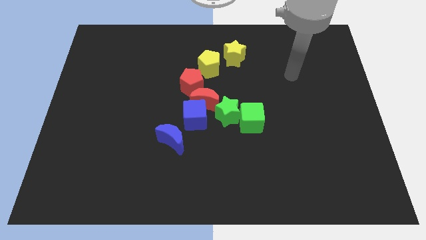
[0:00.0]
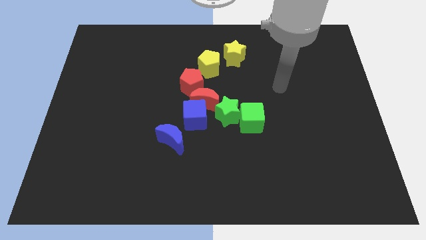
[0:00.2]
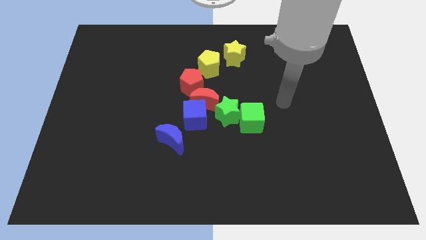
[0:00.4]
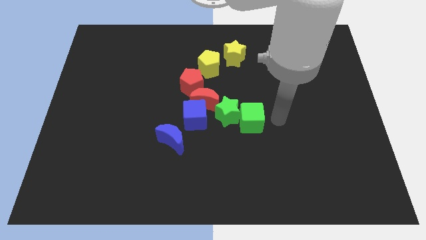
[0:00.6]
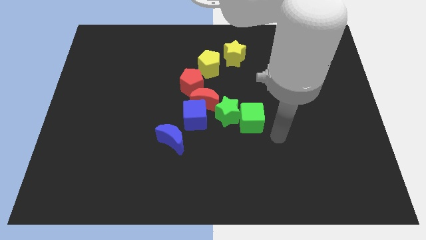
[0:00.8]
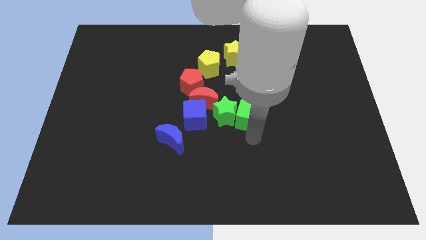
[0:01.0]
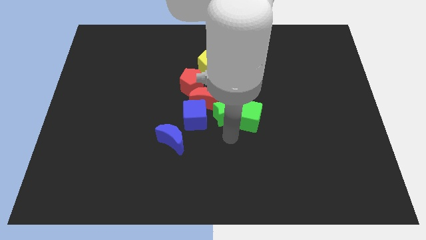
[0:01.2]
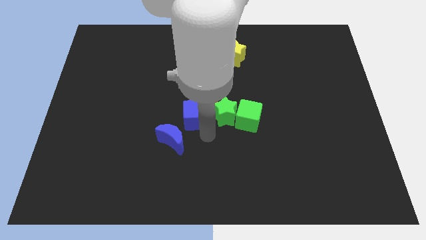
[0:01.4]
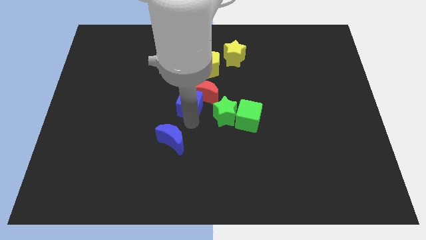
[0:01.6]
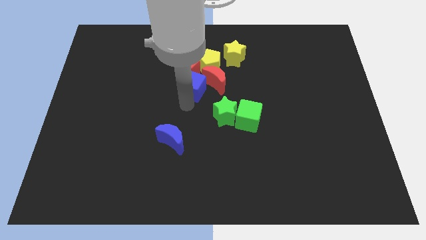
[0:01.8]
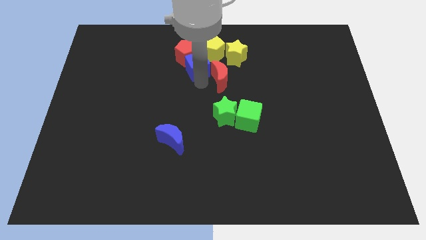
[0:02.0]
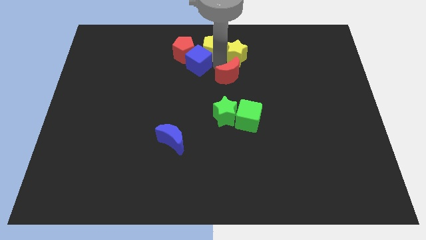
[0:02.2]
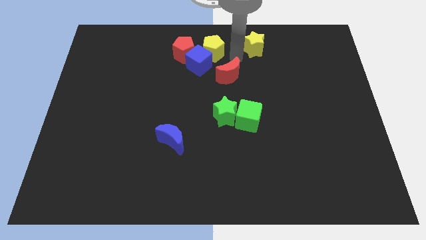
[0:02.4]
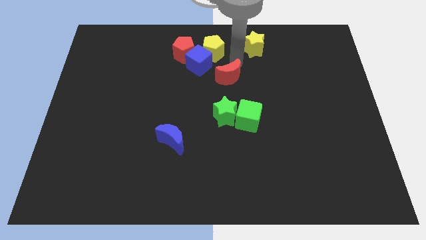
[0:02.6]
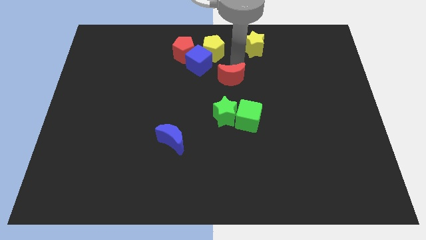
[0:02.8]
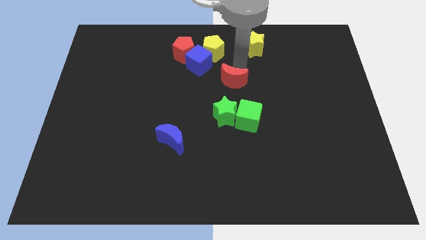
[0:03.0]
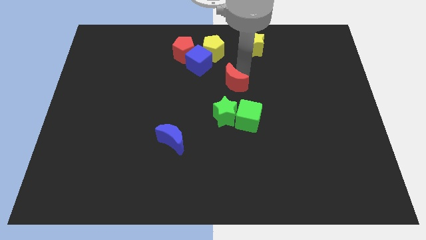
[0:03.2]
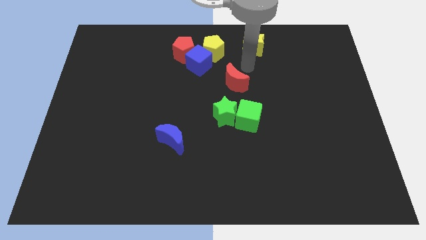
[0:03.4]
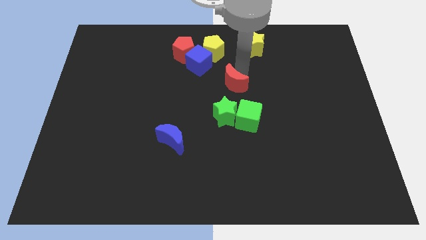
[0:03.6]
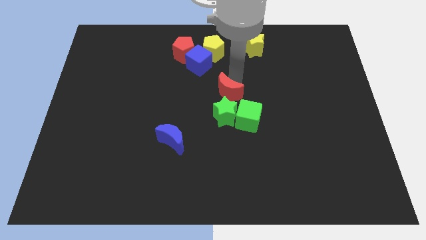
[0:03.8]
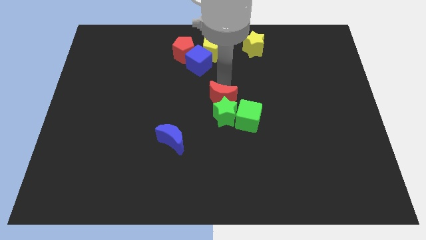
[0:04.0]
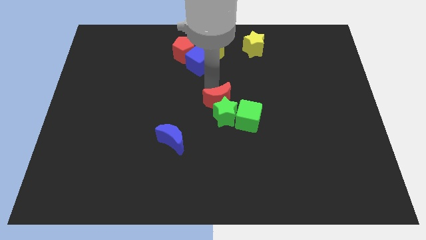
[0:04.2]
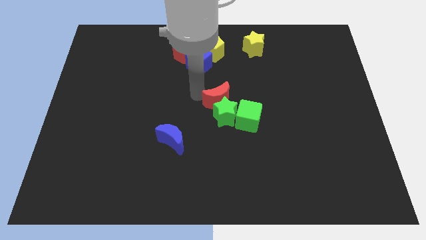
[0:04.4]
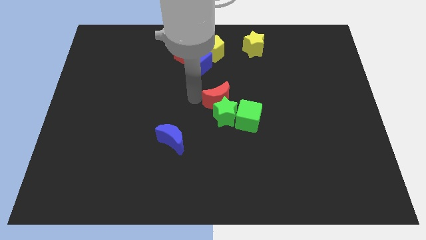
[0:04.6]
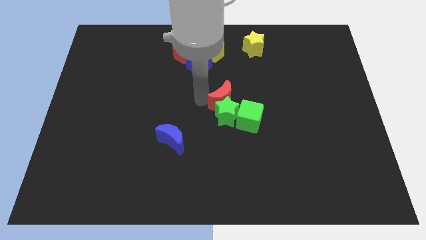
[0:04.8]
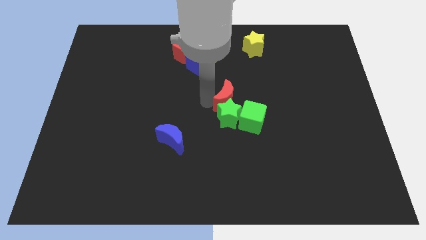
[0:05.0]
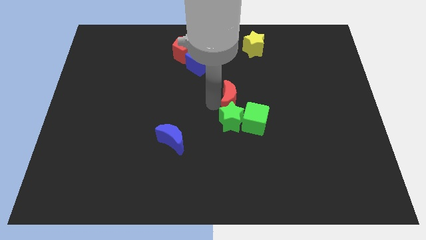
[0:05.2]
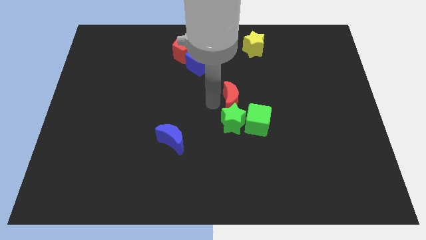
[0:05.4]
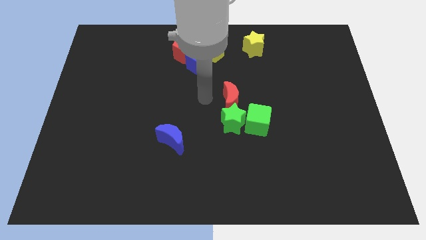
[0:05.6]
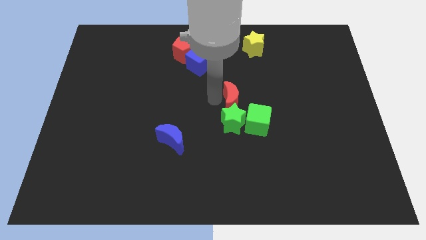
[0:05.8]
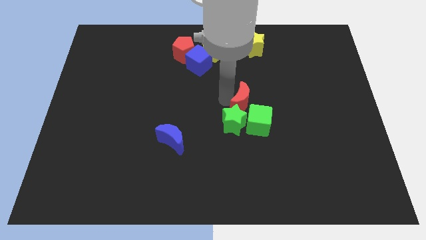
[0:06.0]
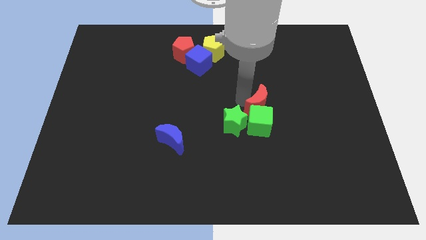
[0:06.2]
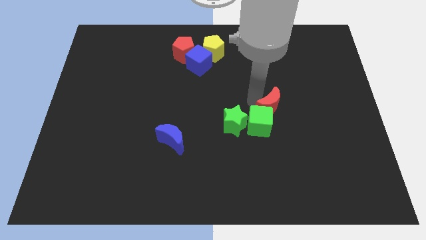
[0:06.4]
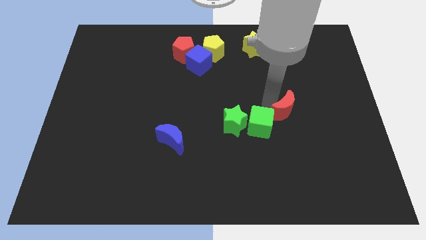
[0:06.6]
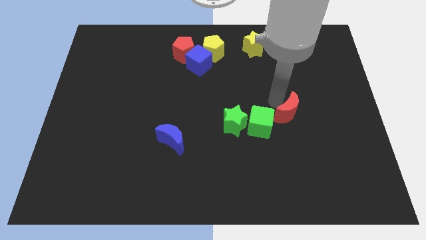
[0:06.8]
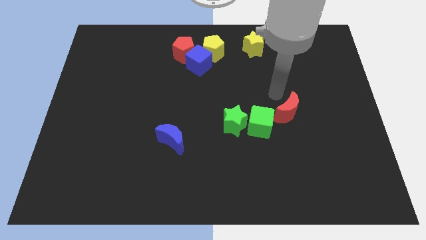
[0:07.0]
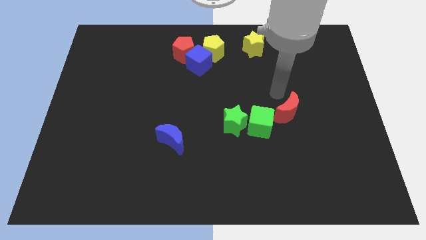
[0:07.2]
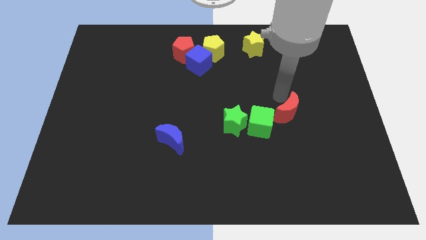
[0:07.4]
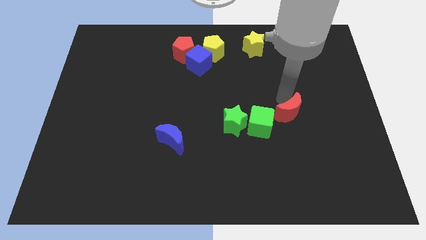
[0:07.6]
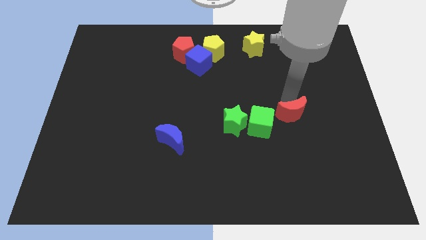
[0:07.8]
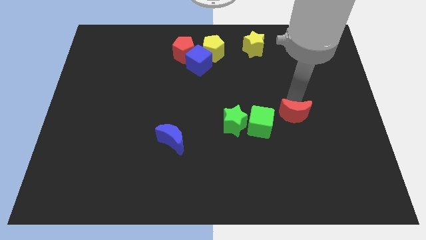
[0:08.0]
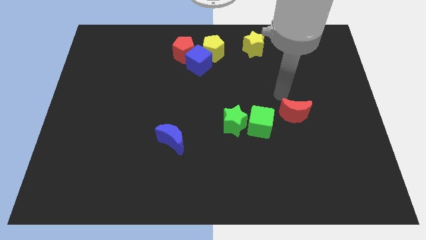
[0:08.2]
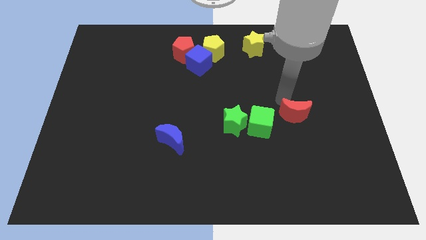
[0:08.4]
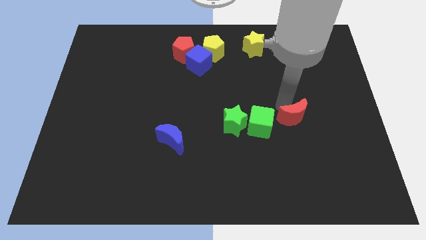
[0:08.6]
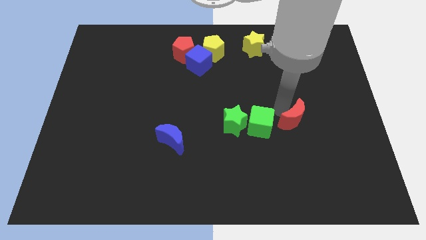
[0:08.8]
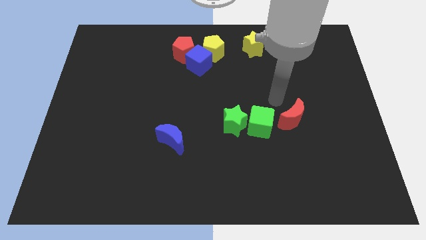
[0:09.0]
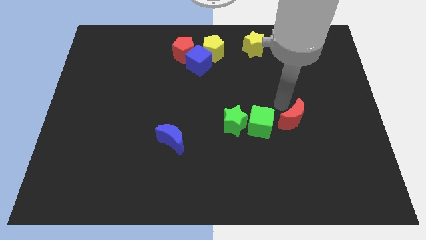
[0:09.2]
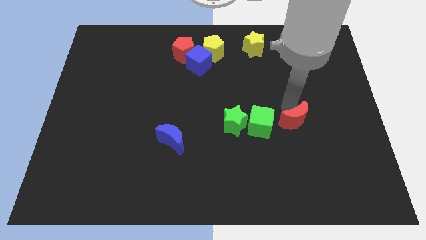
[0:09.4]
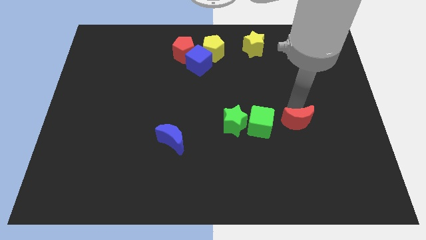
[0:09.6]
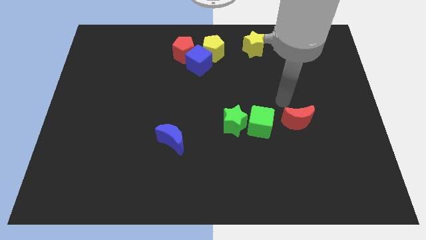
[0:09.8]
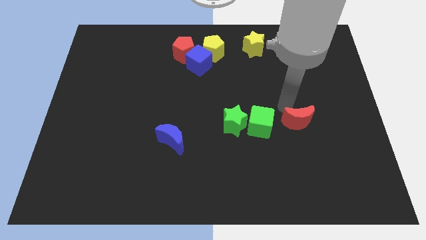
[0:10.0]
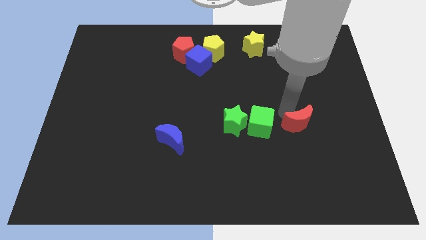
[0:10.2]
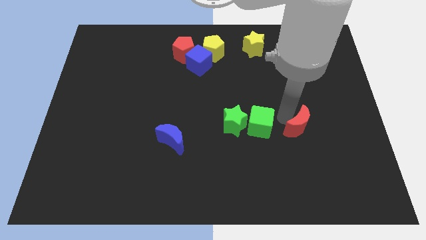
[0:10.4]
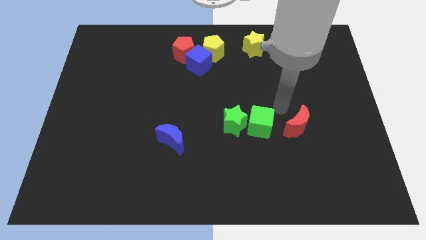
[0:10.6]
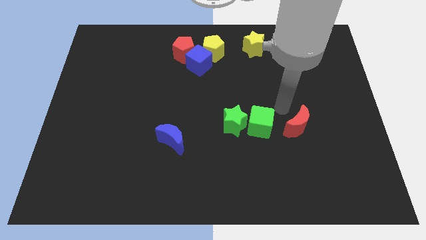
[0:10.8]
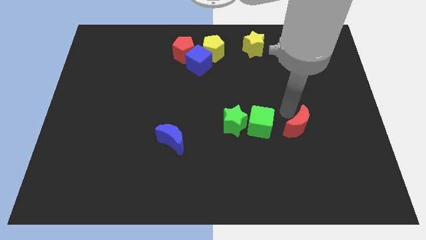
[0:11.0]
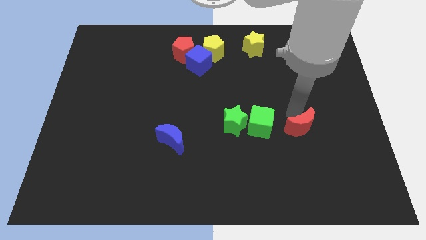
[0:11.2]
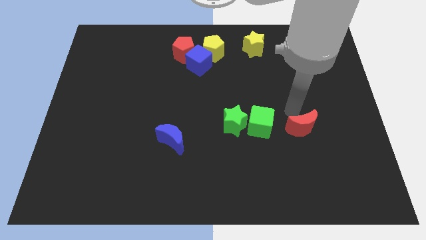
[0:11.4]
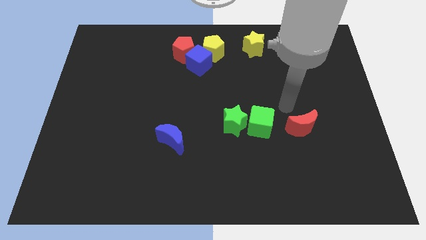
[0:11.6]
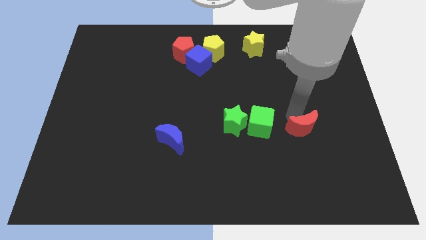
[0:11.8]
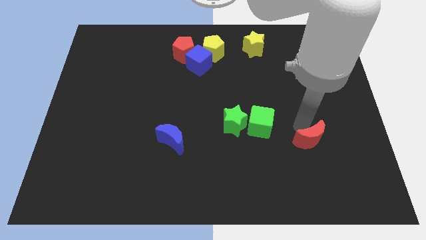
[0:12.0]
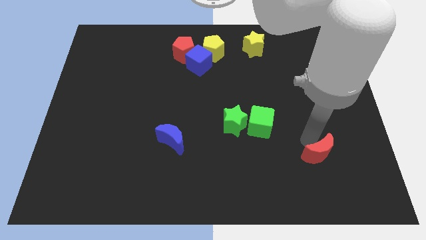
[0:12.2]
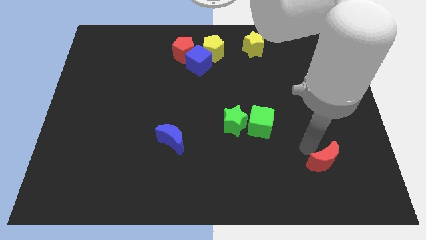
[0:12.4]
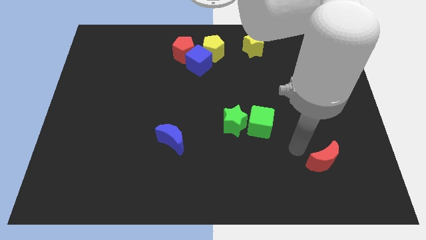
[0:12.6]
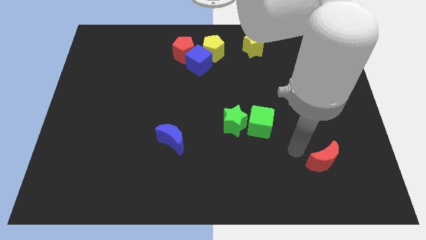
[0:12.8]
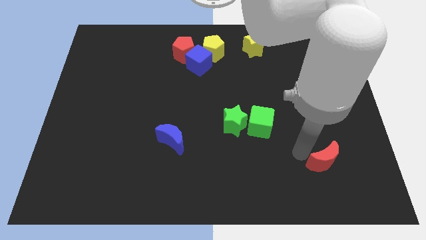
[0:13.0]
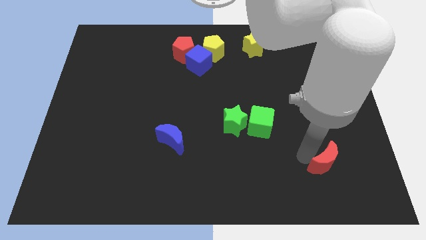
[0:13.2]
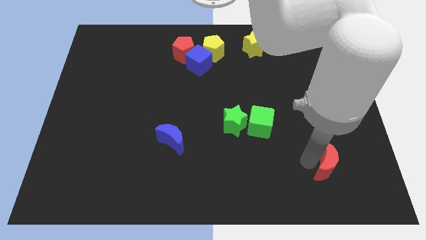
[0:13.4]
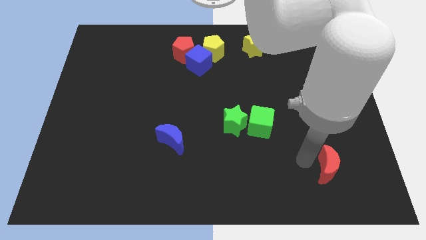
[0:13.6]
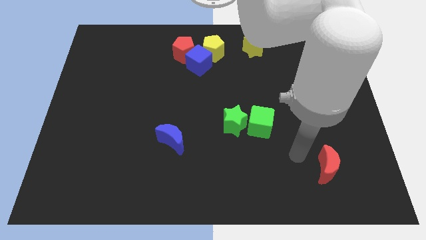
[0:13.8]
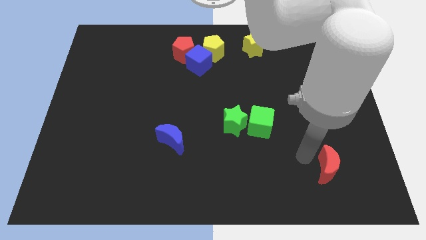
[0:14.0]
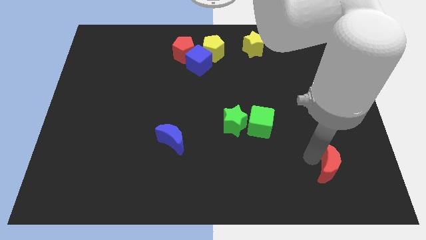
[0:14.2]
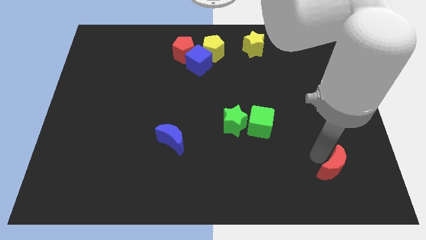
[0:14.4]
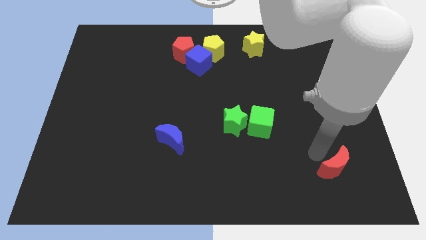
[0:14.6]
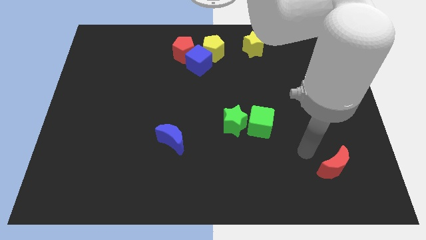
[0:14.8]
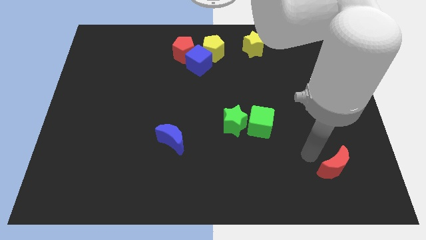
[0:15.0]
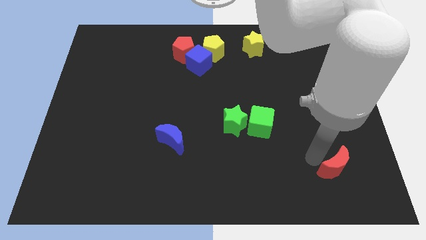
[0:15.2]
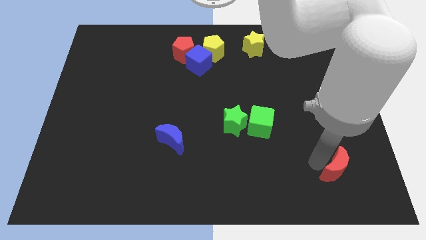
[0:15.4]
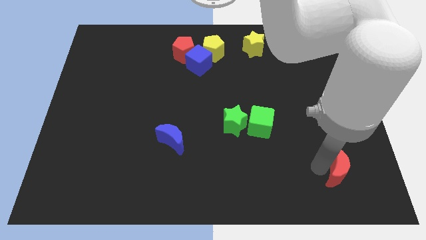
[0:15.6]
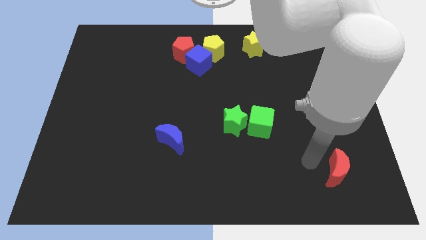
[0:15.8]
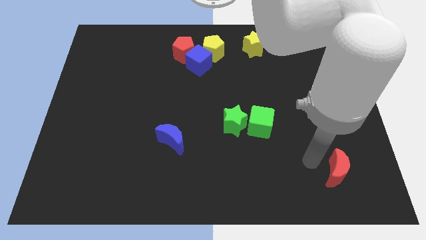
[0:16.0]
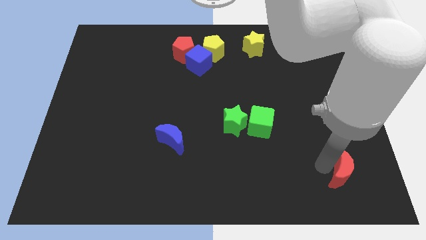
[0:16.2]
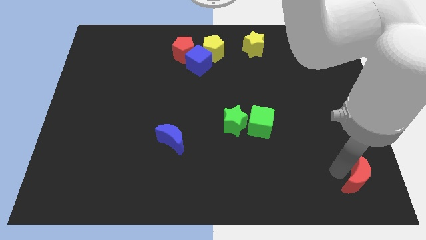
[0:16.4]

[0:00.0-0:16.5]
move the red moon to the lower right corner
